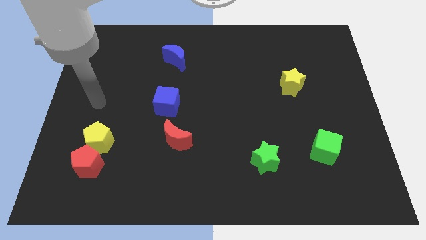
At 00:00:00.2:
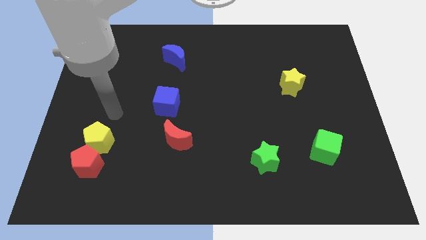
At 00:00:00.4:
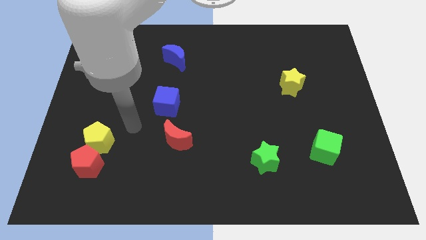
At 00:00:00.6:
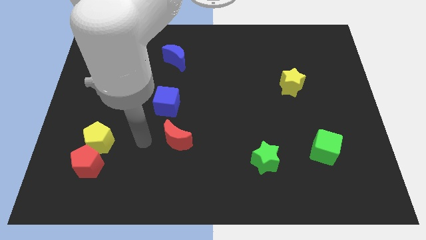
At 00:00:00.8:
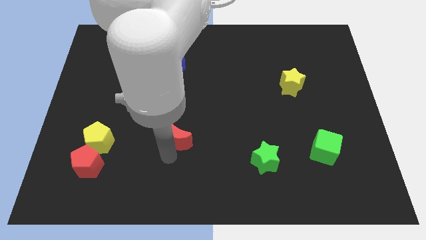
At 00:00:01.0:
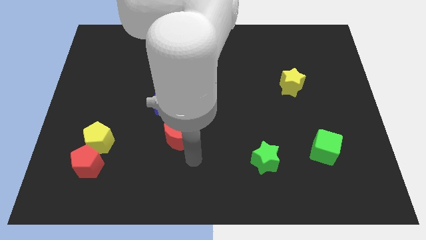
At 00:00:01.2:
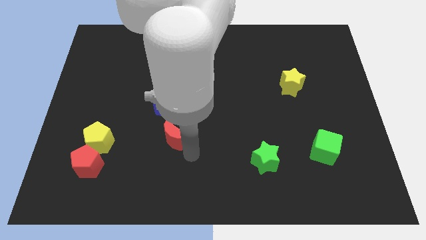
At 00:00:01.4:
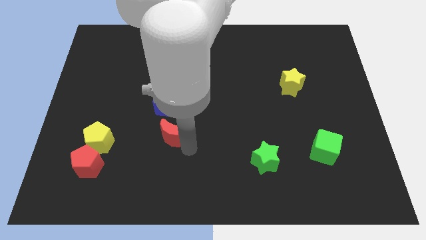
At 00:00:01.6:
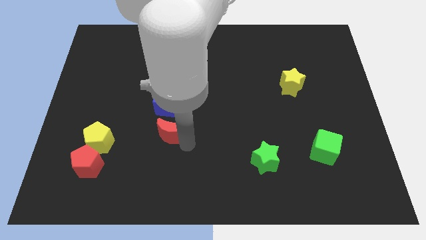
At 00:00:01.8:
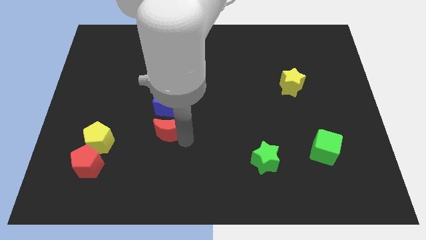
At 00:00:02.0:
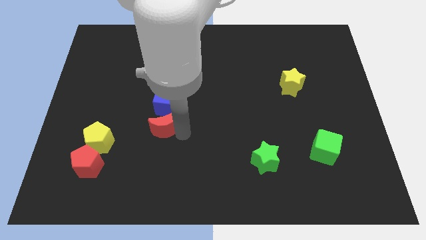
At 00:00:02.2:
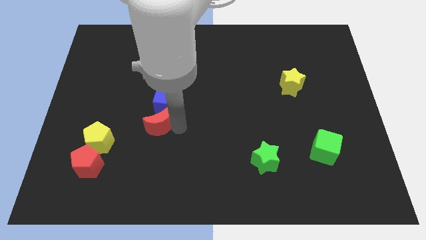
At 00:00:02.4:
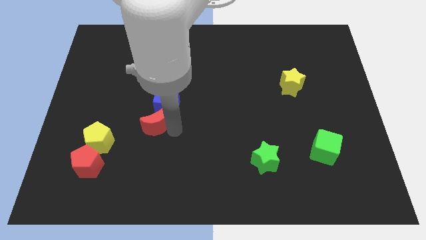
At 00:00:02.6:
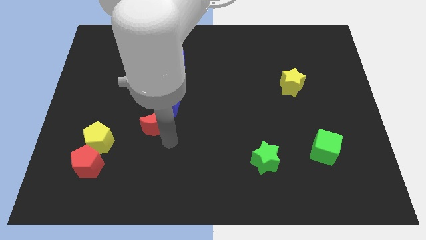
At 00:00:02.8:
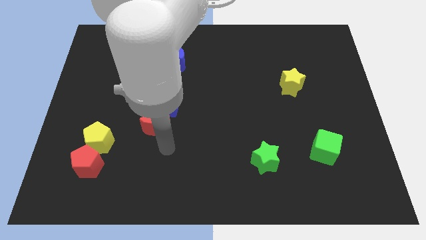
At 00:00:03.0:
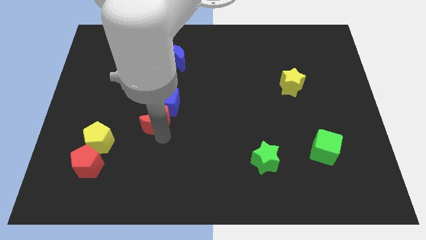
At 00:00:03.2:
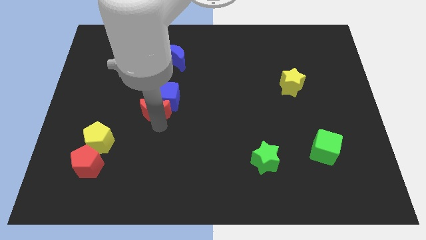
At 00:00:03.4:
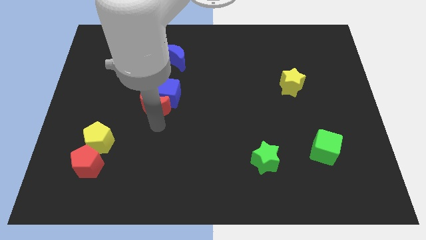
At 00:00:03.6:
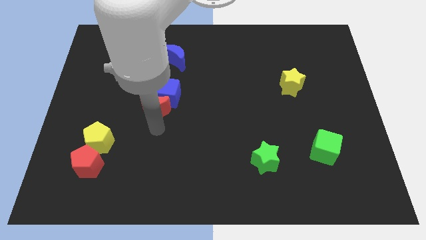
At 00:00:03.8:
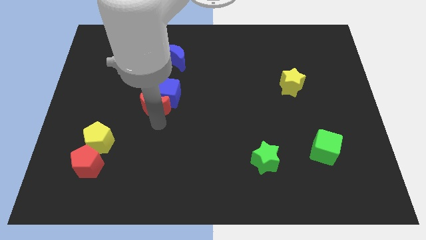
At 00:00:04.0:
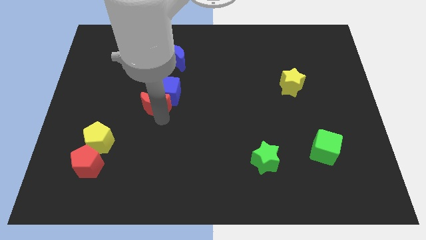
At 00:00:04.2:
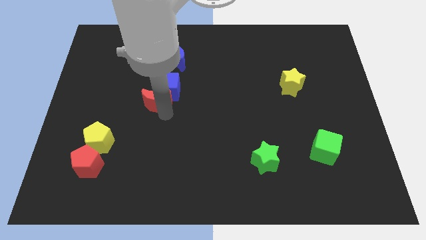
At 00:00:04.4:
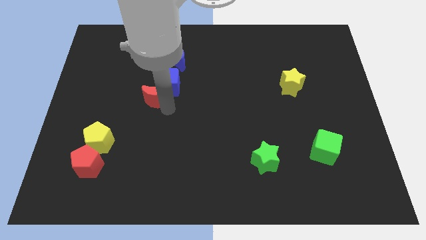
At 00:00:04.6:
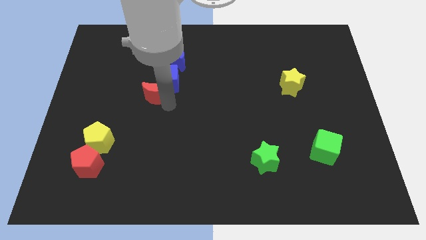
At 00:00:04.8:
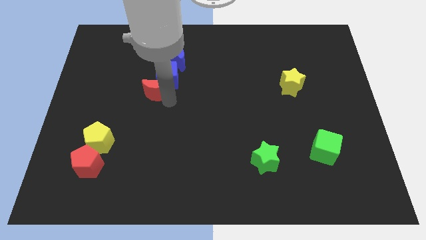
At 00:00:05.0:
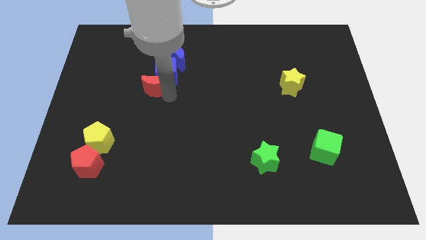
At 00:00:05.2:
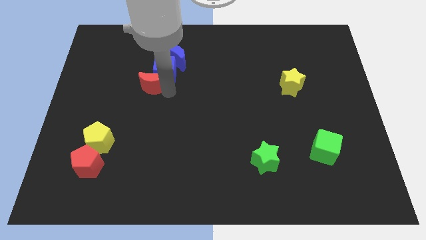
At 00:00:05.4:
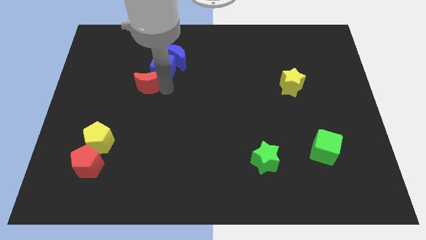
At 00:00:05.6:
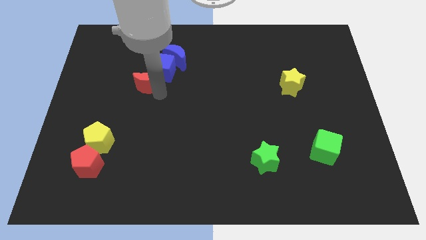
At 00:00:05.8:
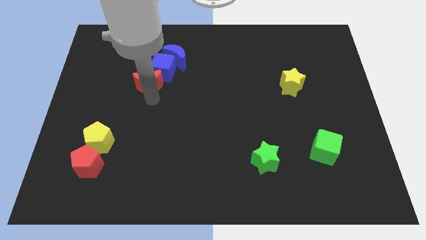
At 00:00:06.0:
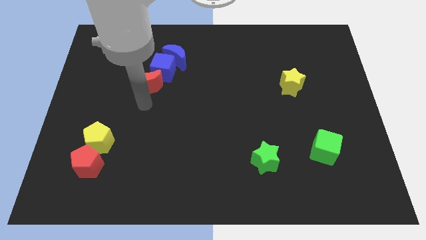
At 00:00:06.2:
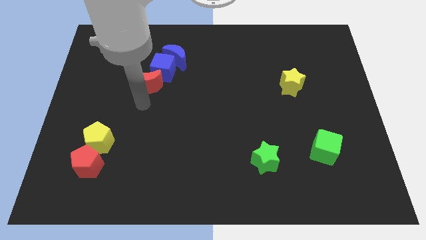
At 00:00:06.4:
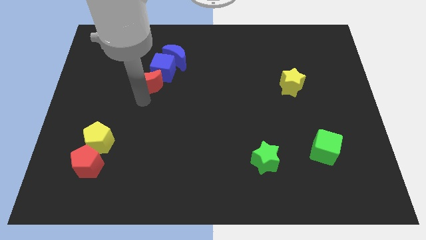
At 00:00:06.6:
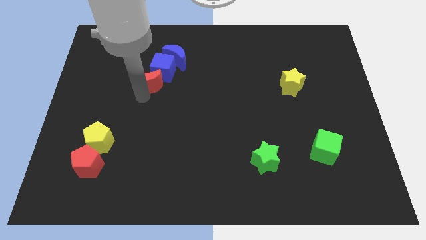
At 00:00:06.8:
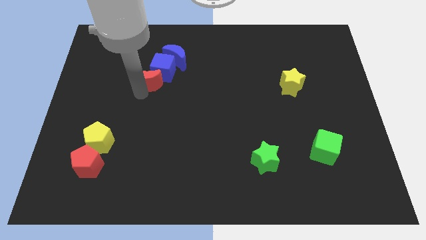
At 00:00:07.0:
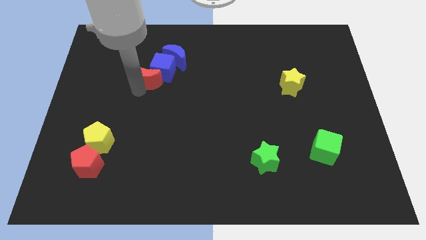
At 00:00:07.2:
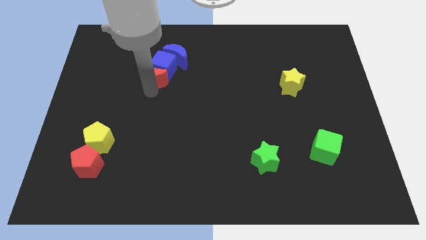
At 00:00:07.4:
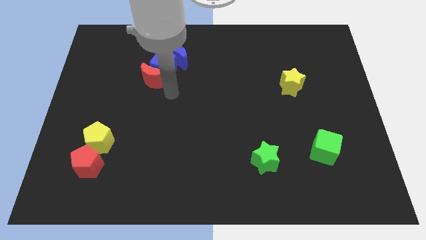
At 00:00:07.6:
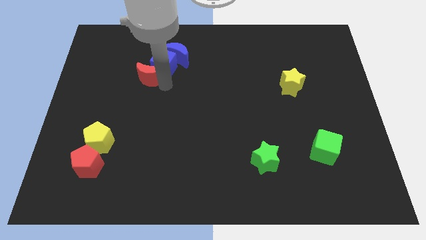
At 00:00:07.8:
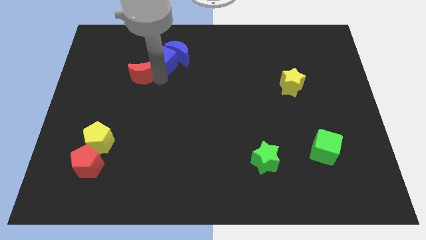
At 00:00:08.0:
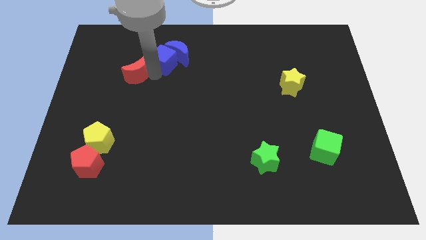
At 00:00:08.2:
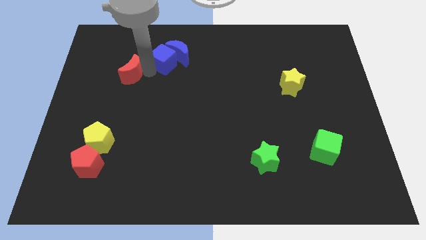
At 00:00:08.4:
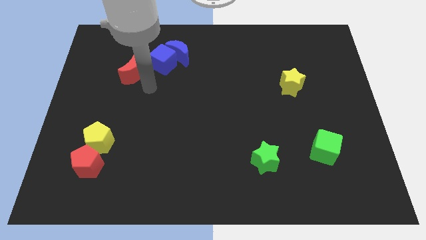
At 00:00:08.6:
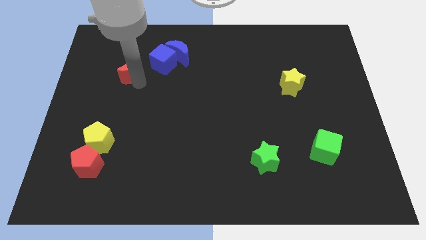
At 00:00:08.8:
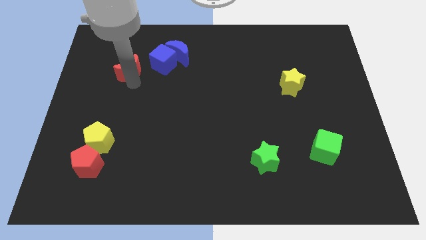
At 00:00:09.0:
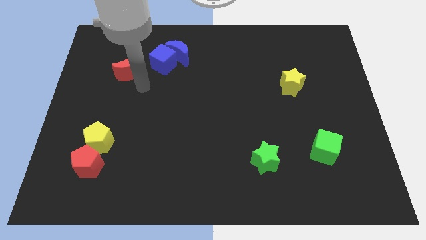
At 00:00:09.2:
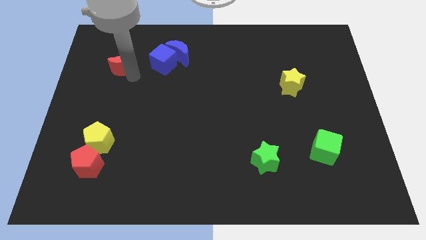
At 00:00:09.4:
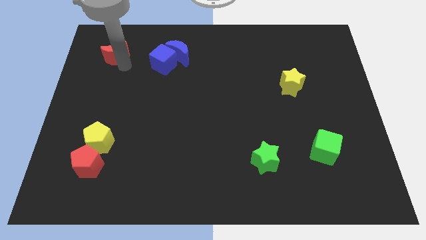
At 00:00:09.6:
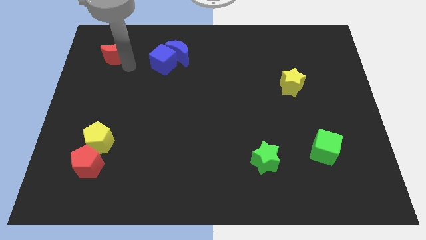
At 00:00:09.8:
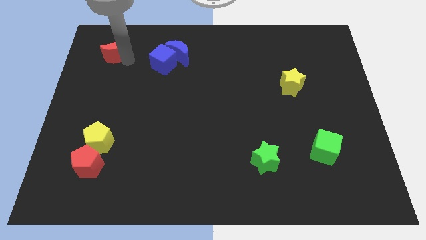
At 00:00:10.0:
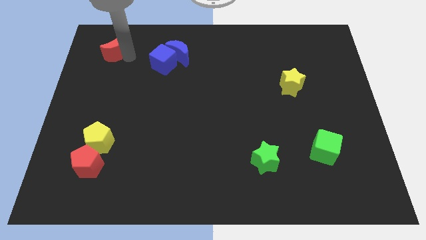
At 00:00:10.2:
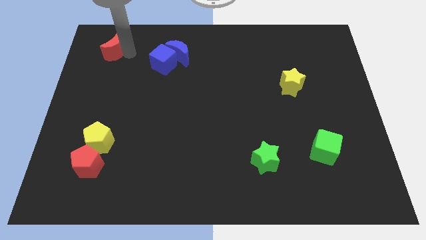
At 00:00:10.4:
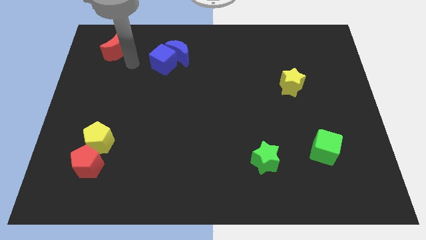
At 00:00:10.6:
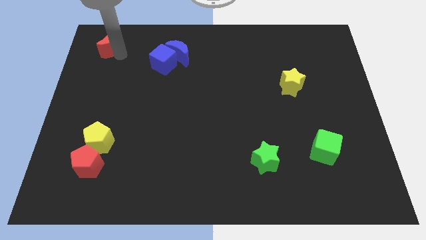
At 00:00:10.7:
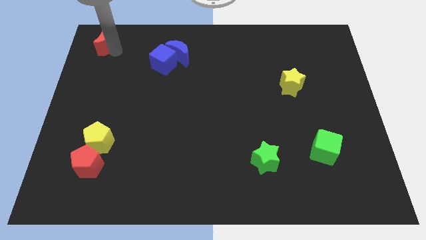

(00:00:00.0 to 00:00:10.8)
move the red moon to the top left

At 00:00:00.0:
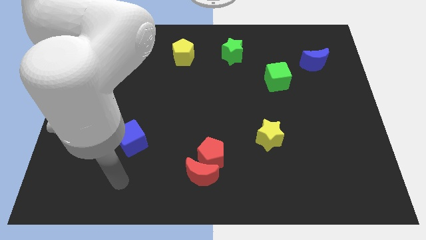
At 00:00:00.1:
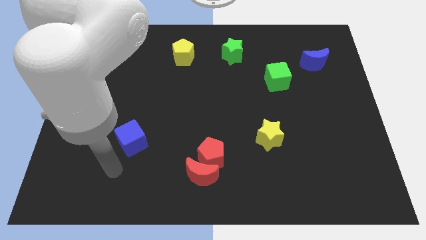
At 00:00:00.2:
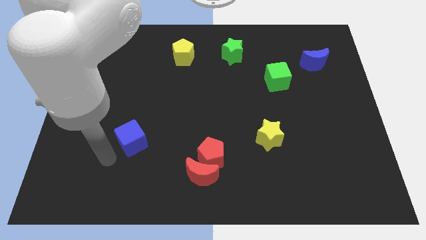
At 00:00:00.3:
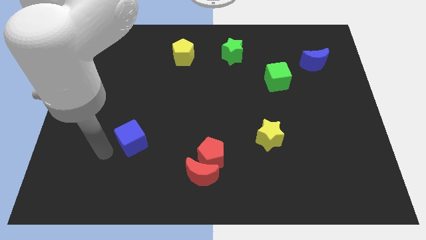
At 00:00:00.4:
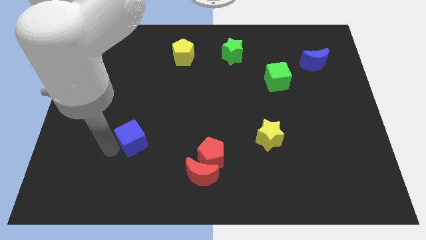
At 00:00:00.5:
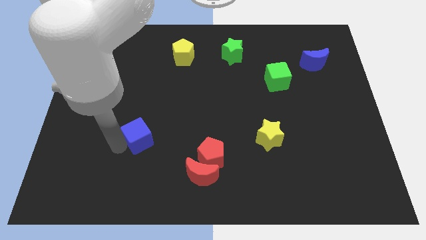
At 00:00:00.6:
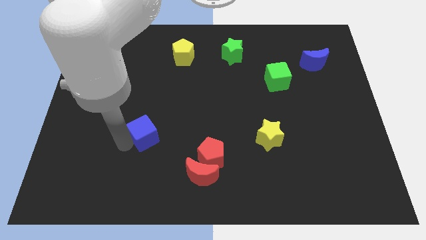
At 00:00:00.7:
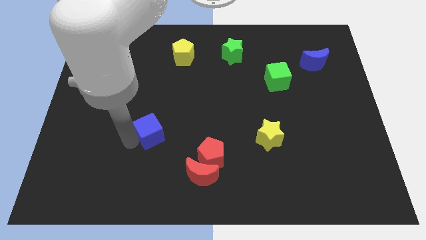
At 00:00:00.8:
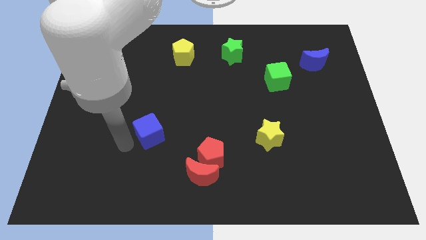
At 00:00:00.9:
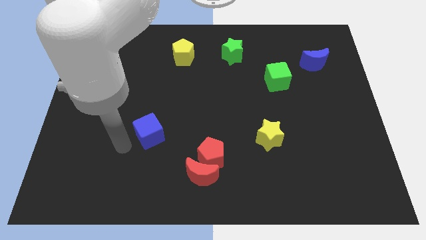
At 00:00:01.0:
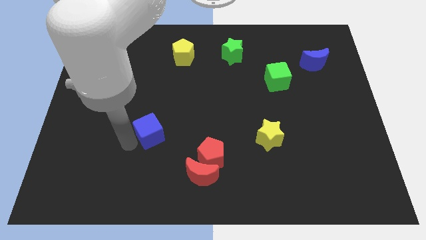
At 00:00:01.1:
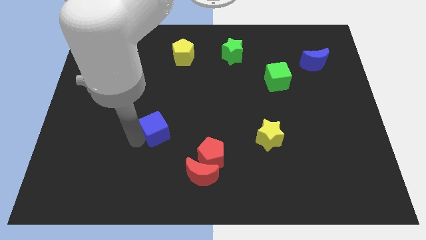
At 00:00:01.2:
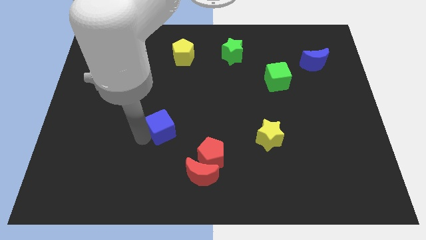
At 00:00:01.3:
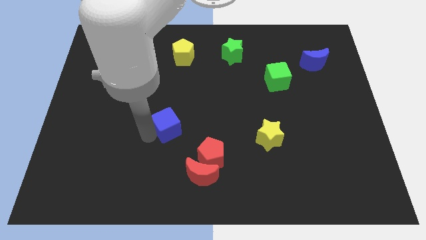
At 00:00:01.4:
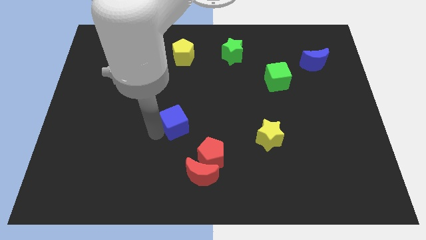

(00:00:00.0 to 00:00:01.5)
put the blue cube to the middle of the board
